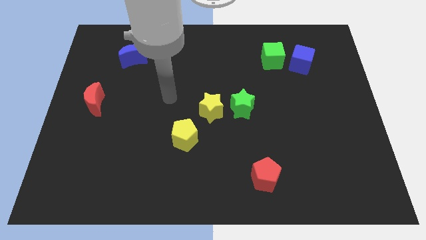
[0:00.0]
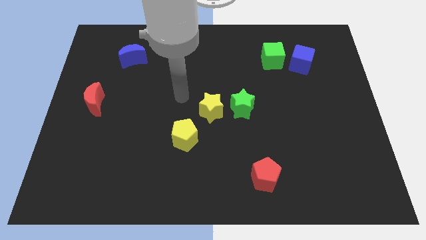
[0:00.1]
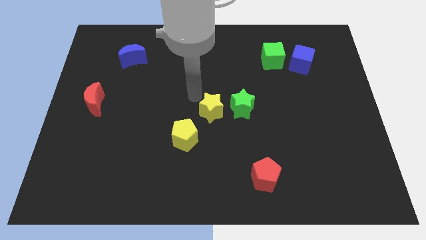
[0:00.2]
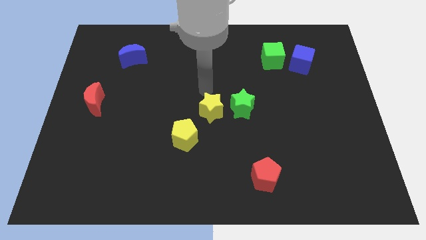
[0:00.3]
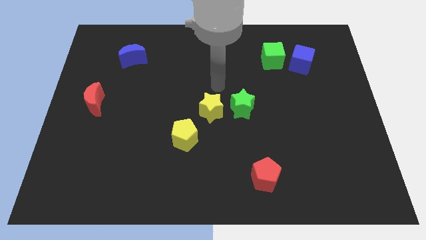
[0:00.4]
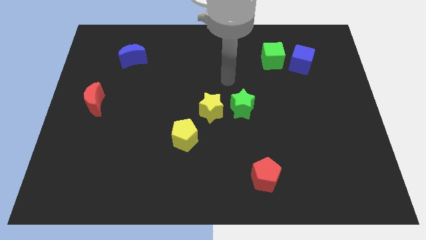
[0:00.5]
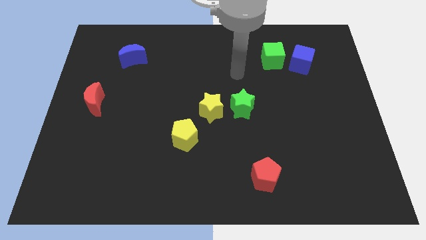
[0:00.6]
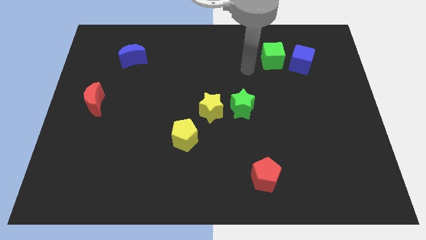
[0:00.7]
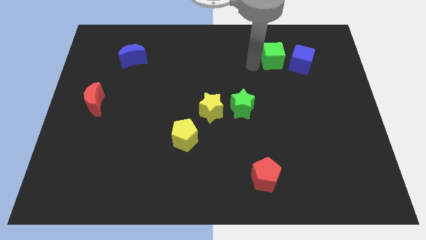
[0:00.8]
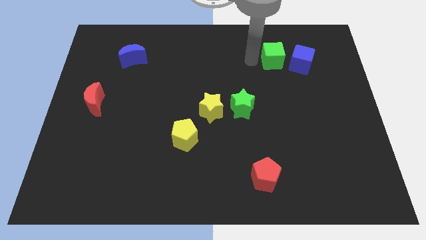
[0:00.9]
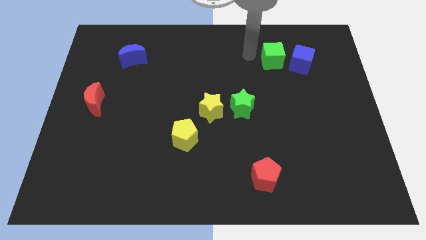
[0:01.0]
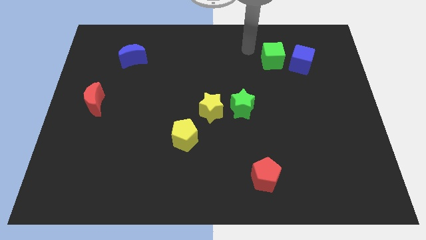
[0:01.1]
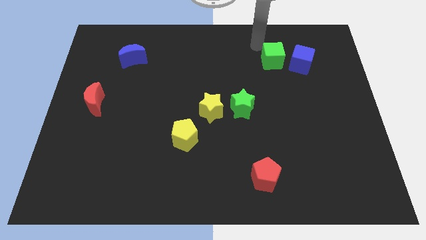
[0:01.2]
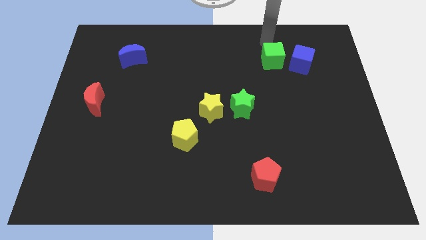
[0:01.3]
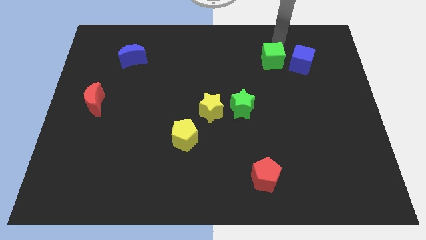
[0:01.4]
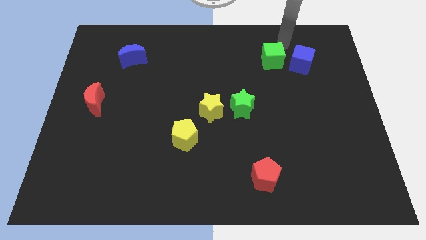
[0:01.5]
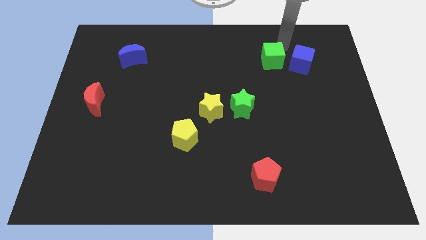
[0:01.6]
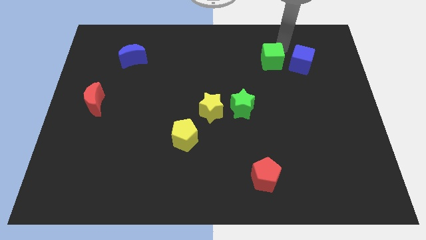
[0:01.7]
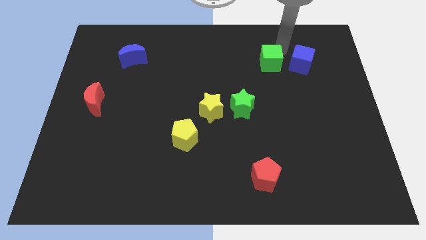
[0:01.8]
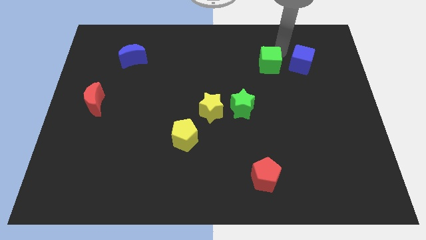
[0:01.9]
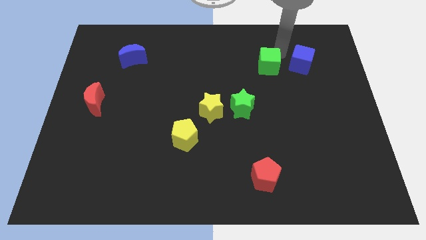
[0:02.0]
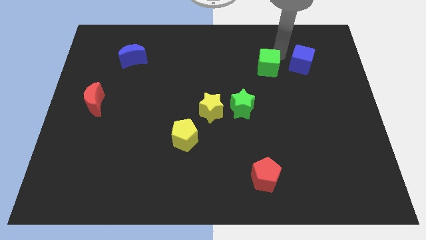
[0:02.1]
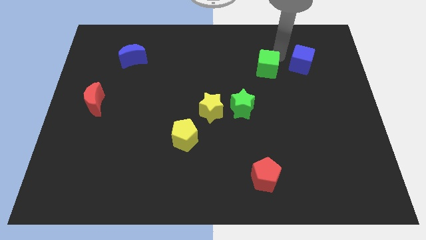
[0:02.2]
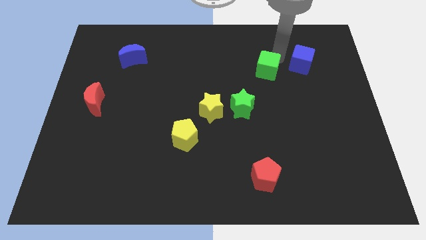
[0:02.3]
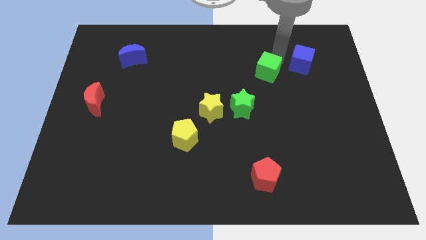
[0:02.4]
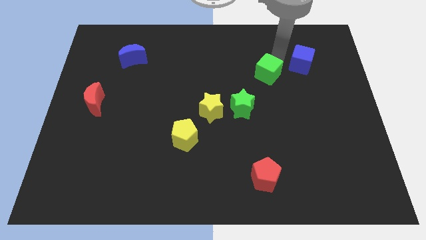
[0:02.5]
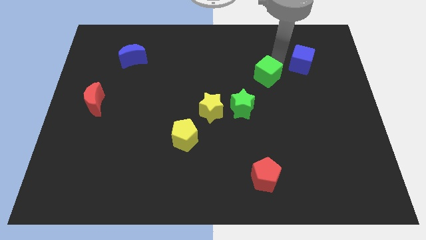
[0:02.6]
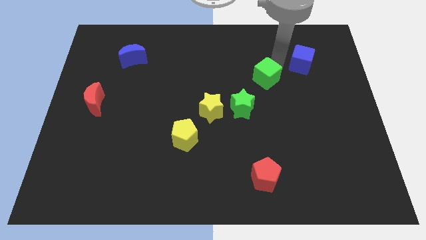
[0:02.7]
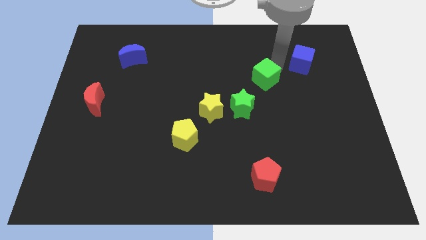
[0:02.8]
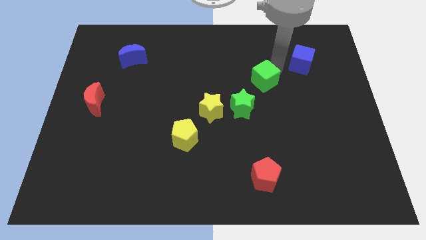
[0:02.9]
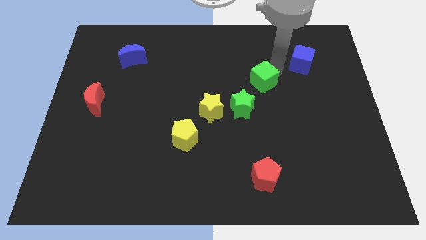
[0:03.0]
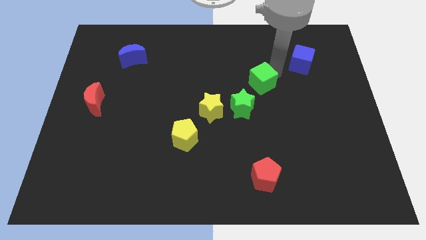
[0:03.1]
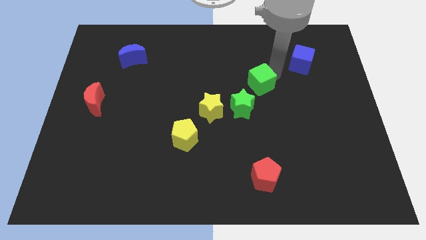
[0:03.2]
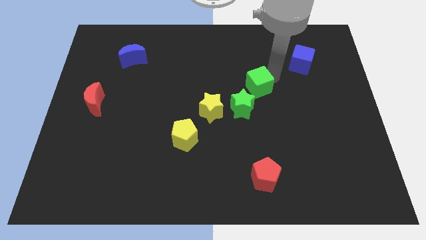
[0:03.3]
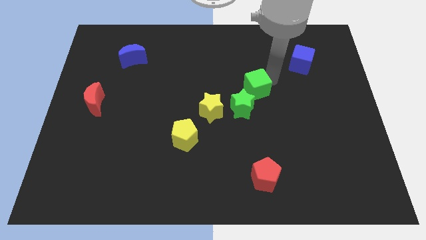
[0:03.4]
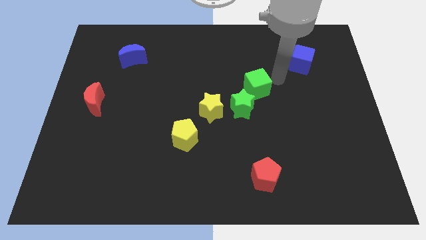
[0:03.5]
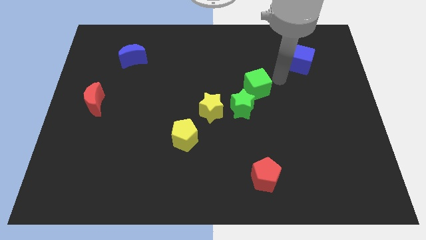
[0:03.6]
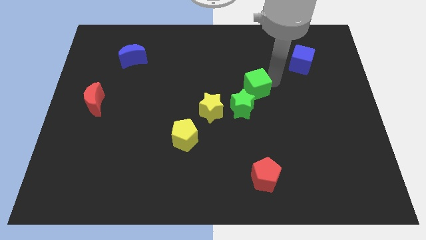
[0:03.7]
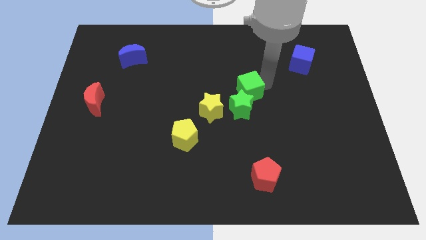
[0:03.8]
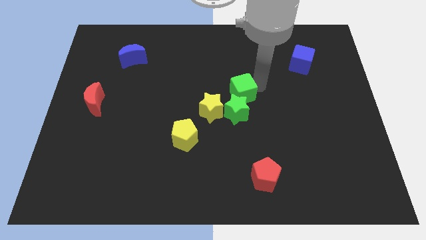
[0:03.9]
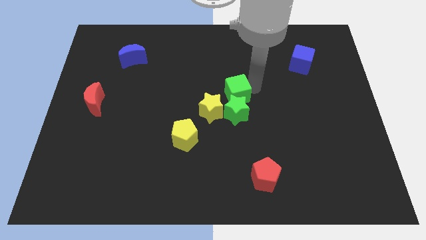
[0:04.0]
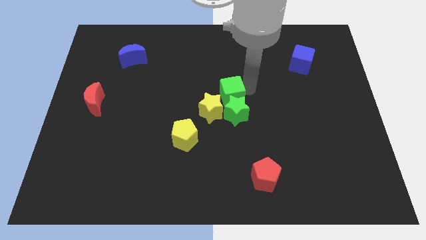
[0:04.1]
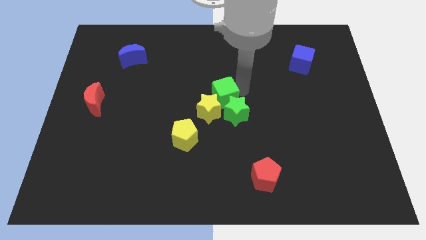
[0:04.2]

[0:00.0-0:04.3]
put the green cube towards the yellow star

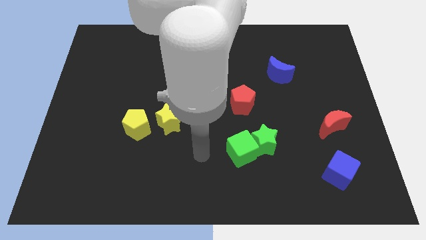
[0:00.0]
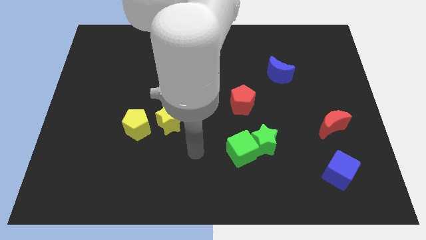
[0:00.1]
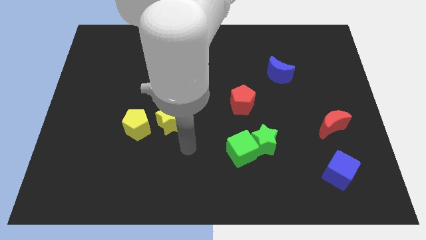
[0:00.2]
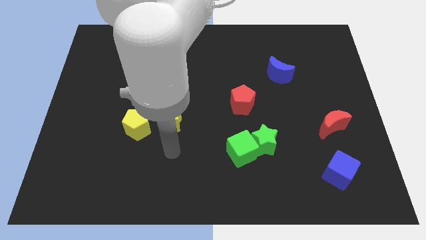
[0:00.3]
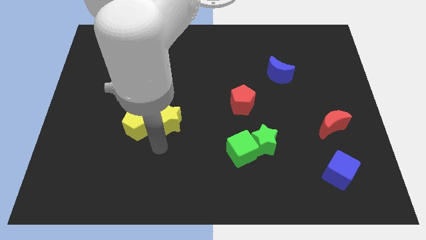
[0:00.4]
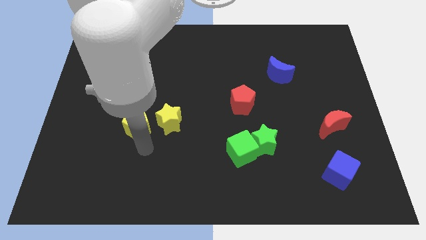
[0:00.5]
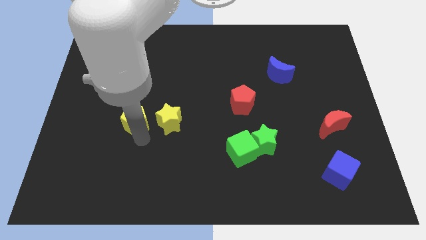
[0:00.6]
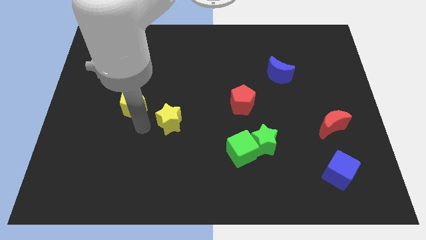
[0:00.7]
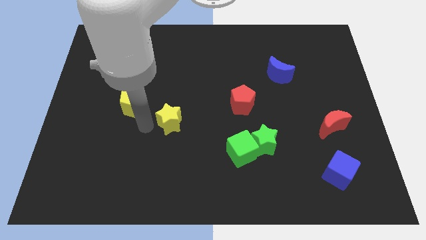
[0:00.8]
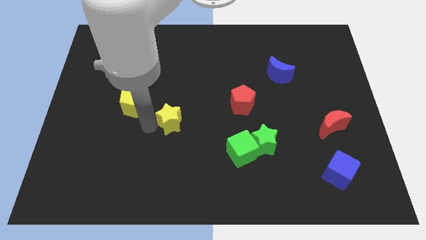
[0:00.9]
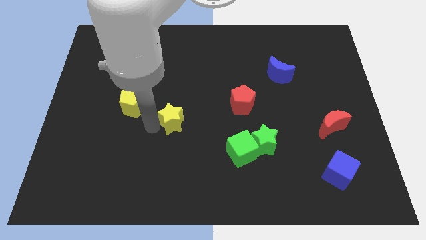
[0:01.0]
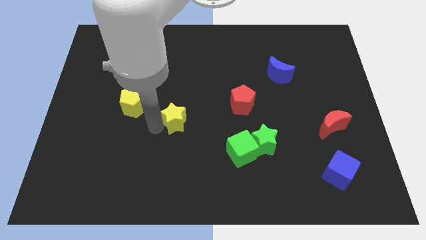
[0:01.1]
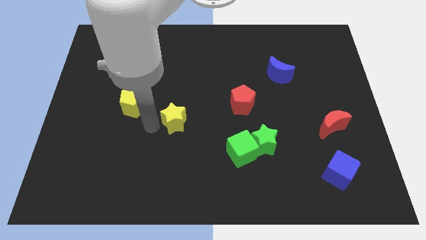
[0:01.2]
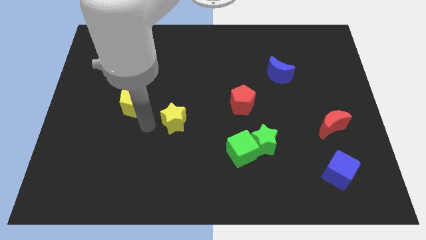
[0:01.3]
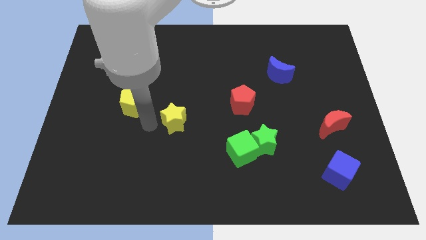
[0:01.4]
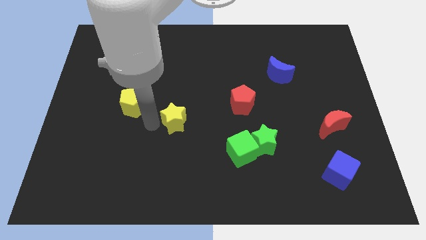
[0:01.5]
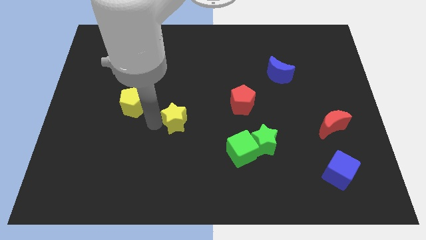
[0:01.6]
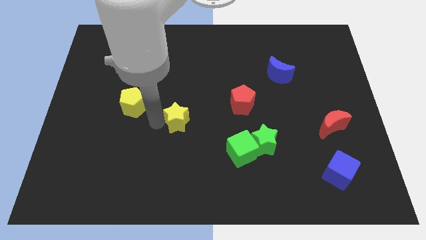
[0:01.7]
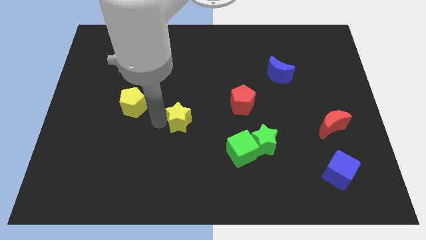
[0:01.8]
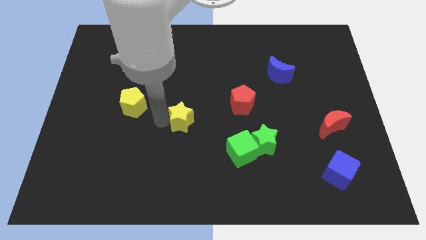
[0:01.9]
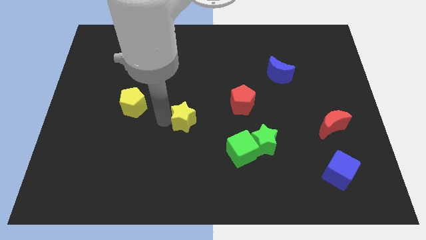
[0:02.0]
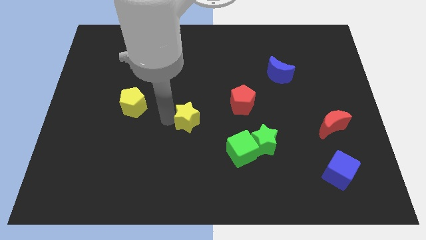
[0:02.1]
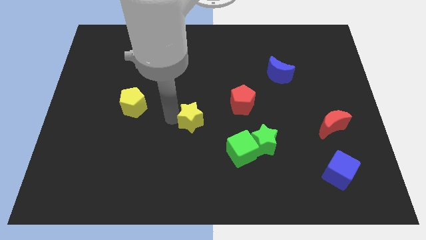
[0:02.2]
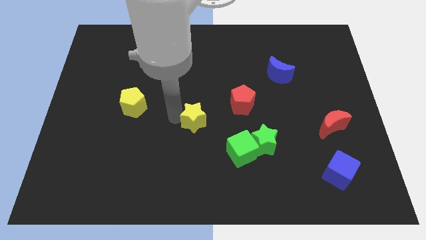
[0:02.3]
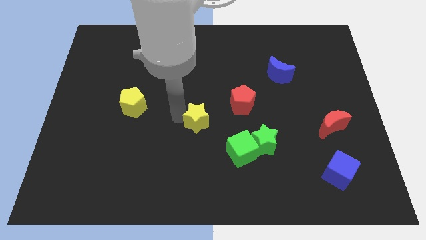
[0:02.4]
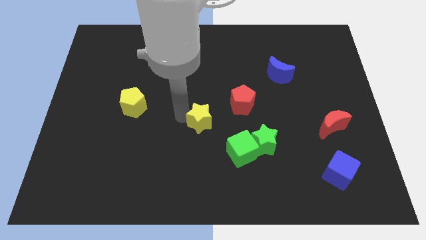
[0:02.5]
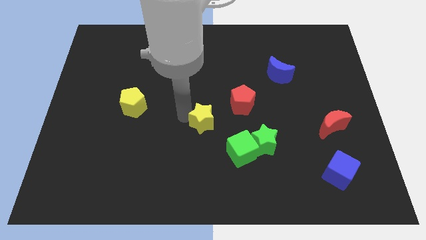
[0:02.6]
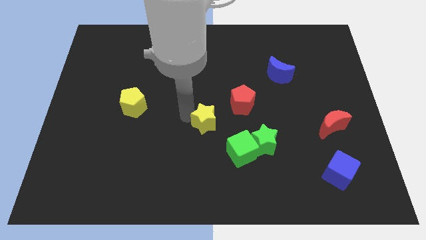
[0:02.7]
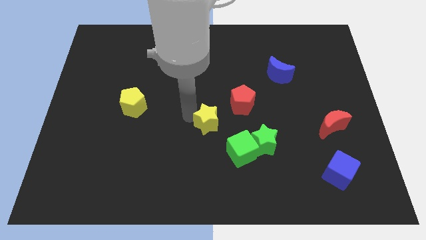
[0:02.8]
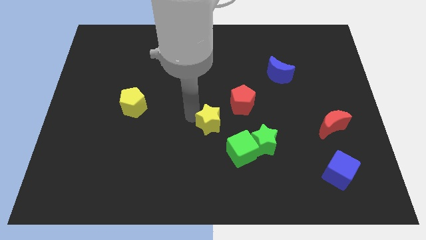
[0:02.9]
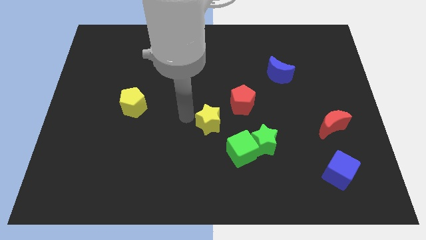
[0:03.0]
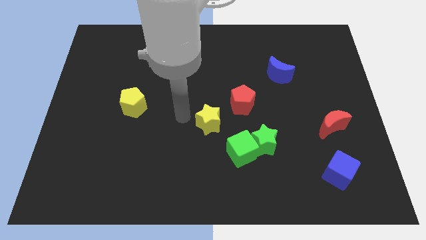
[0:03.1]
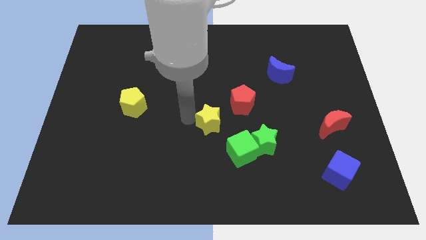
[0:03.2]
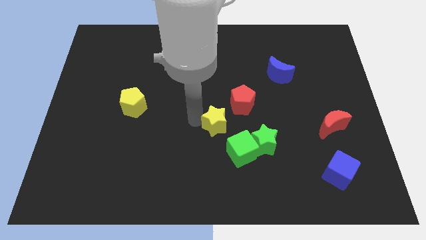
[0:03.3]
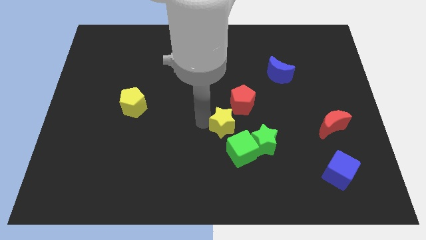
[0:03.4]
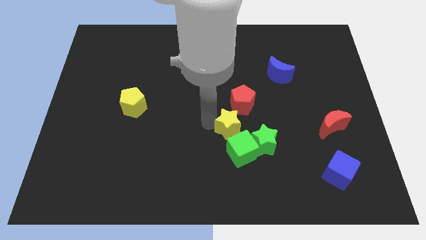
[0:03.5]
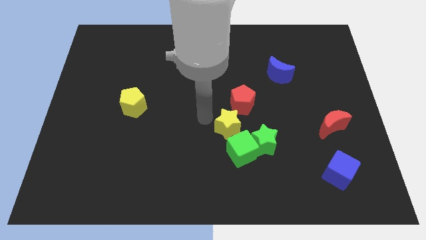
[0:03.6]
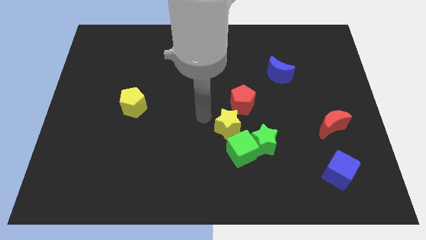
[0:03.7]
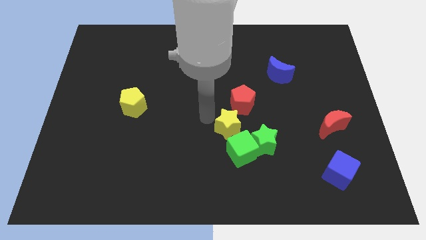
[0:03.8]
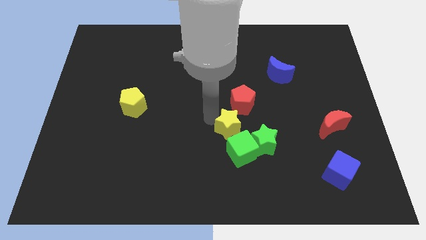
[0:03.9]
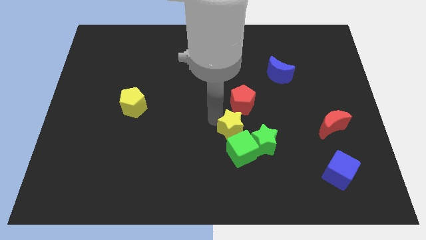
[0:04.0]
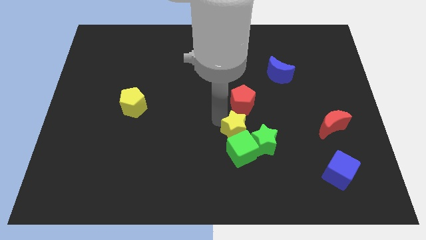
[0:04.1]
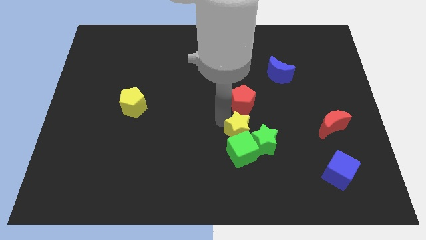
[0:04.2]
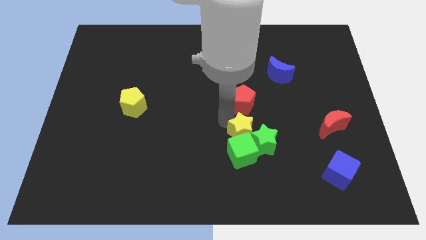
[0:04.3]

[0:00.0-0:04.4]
push the yellow star to the green star
